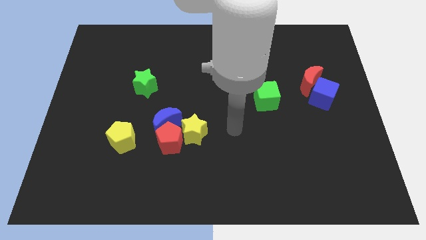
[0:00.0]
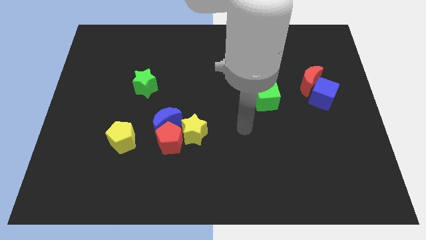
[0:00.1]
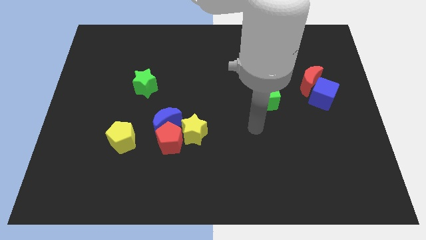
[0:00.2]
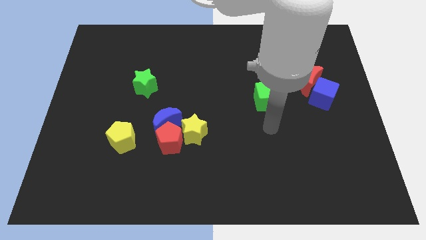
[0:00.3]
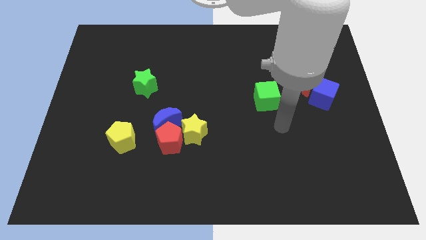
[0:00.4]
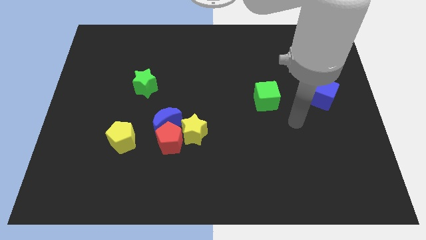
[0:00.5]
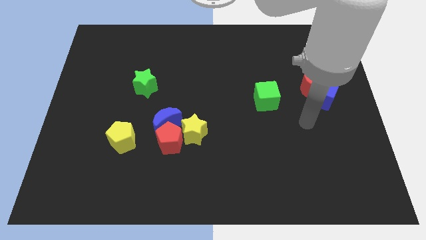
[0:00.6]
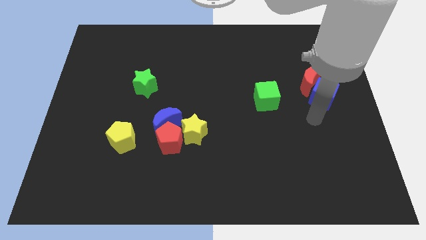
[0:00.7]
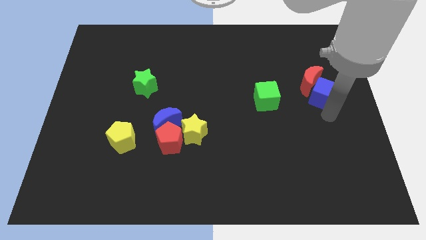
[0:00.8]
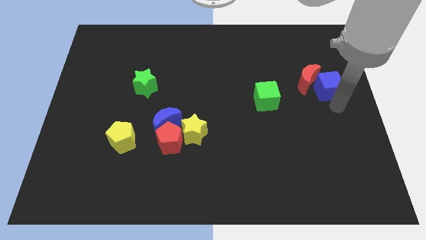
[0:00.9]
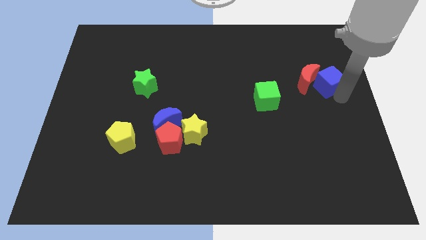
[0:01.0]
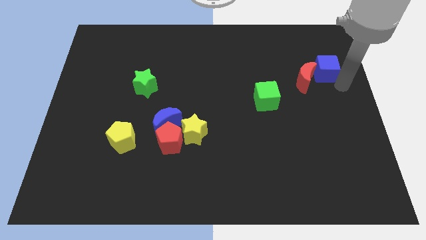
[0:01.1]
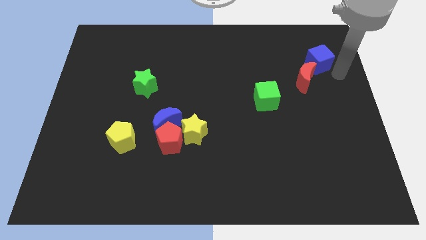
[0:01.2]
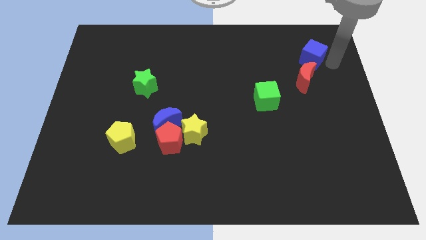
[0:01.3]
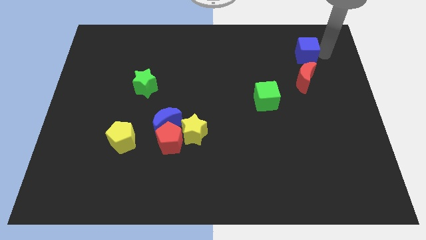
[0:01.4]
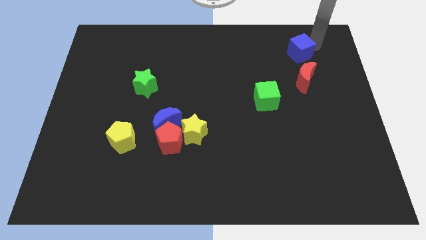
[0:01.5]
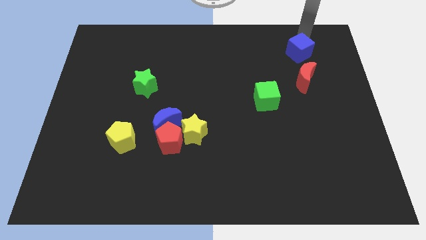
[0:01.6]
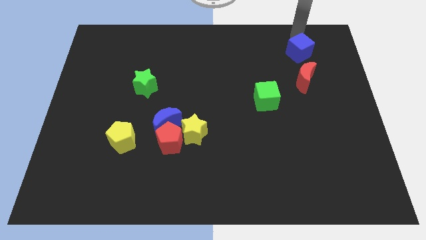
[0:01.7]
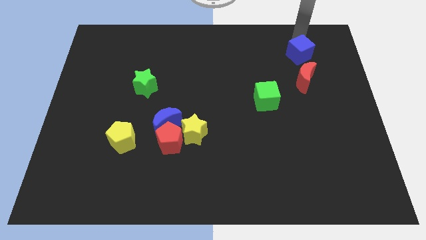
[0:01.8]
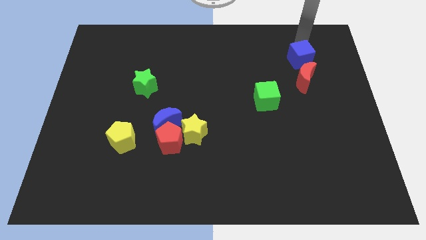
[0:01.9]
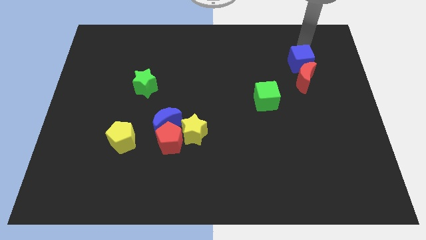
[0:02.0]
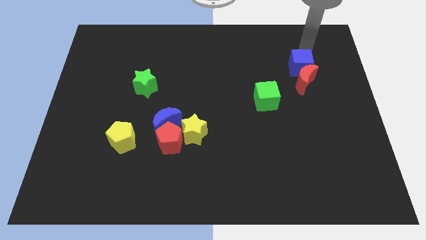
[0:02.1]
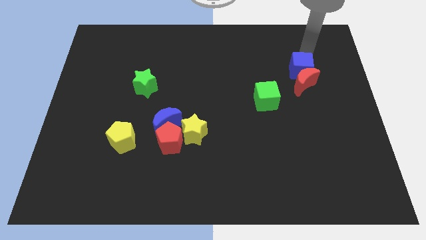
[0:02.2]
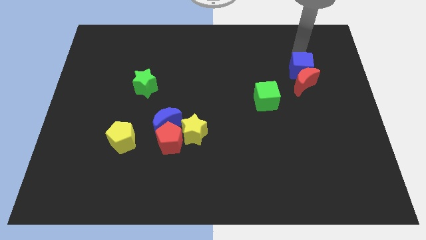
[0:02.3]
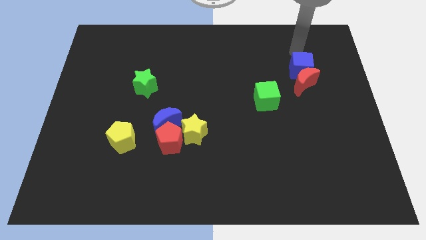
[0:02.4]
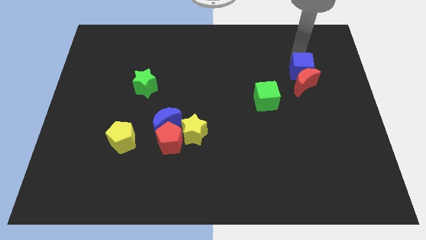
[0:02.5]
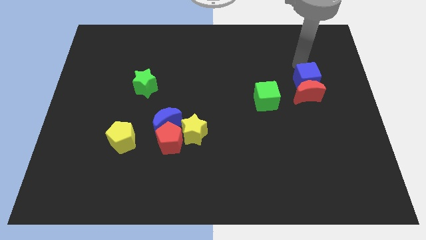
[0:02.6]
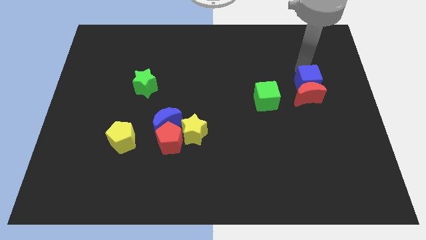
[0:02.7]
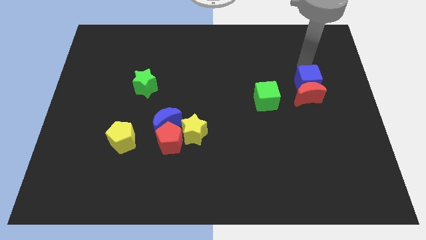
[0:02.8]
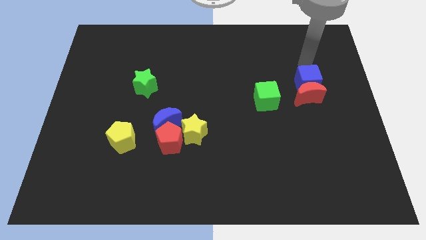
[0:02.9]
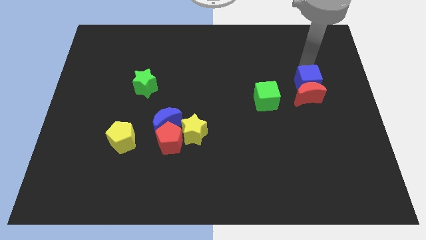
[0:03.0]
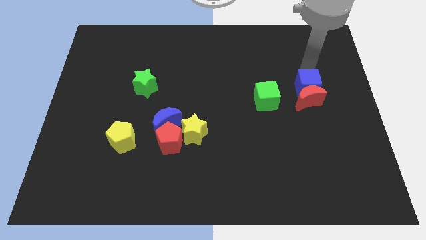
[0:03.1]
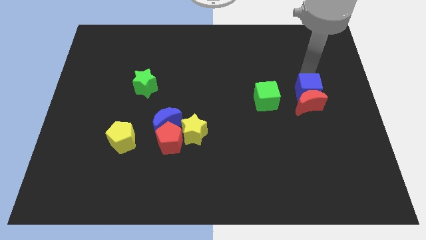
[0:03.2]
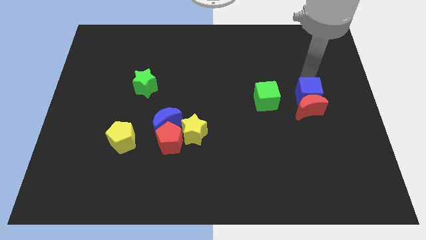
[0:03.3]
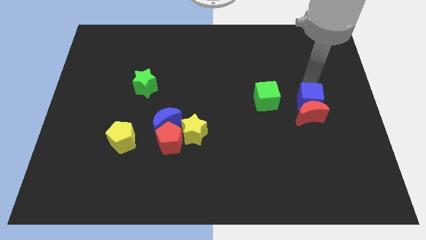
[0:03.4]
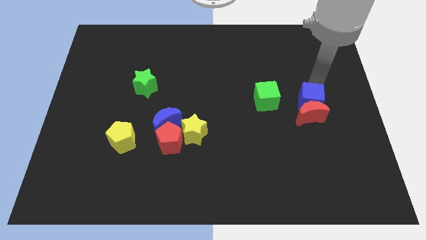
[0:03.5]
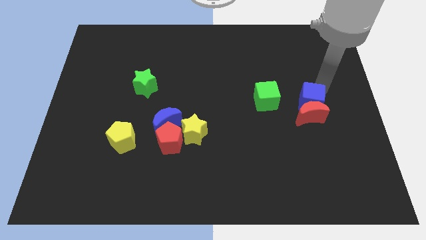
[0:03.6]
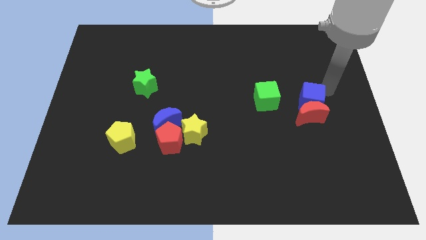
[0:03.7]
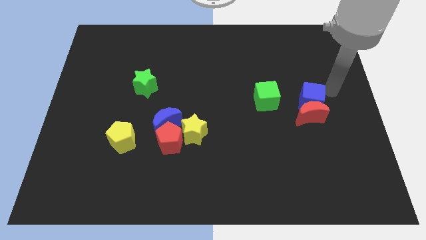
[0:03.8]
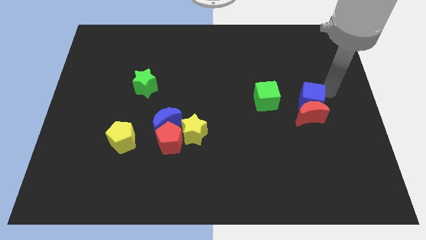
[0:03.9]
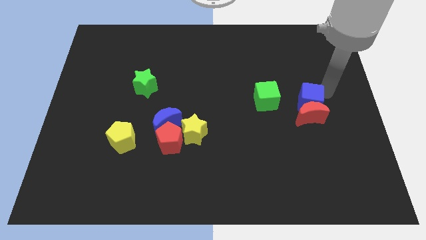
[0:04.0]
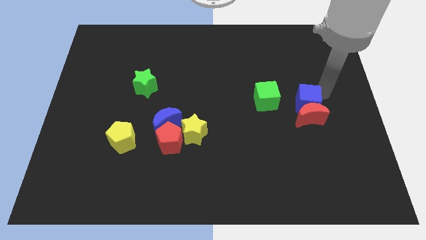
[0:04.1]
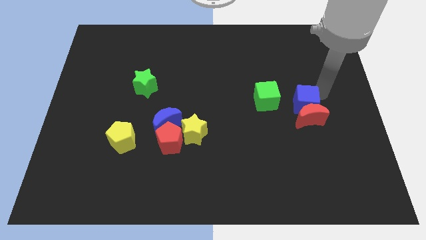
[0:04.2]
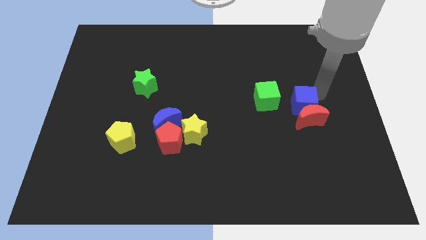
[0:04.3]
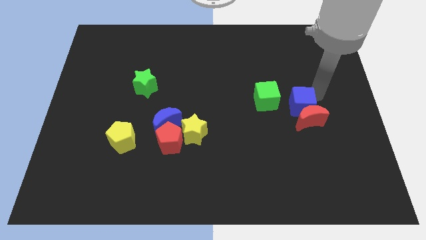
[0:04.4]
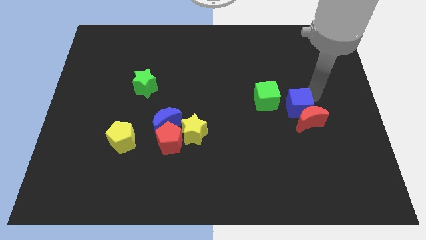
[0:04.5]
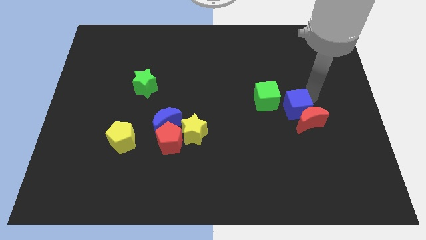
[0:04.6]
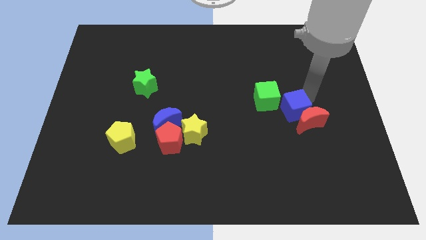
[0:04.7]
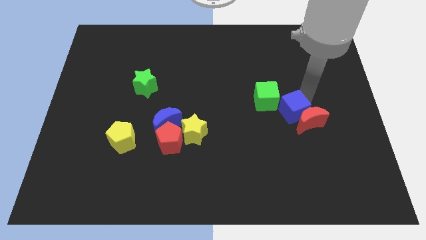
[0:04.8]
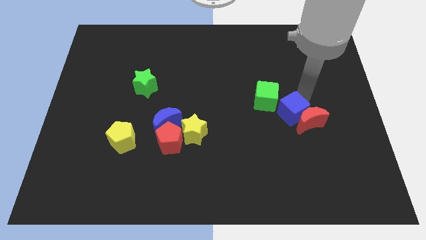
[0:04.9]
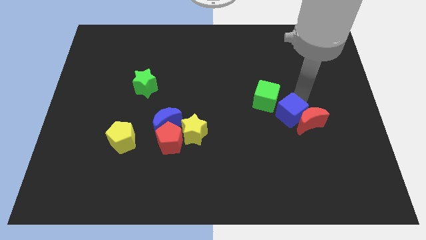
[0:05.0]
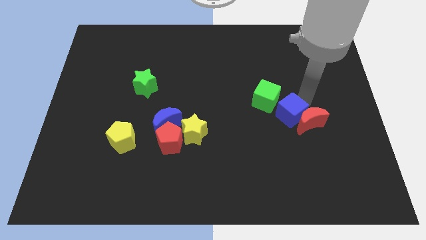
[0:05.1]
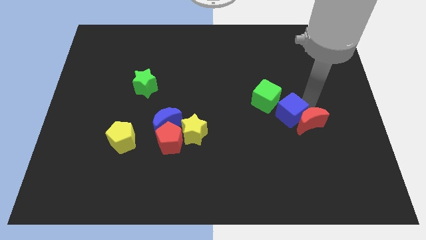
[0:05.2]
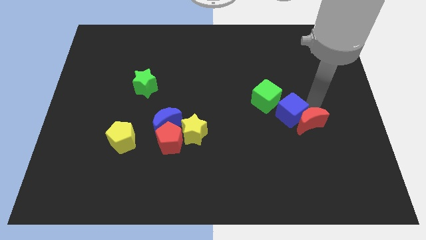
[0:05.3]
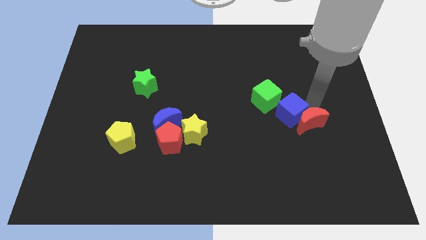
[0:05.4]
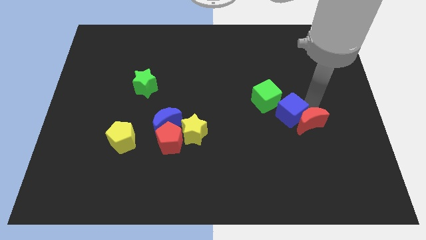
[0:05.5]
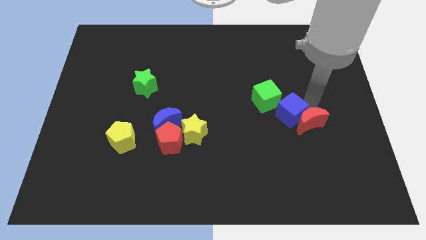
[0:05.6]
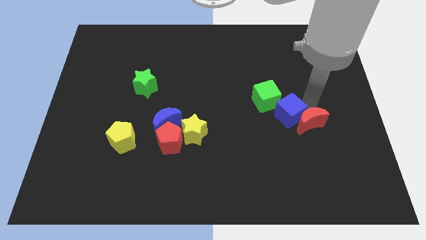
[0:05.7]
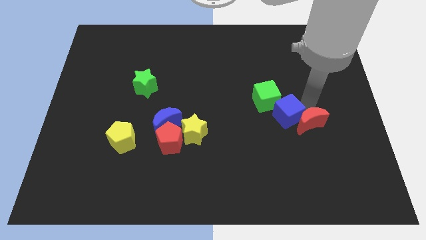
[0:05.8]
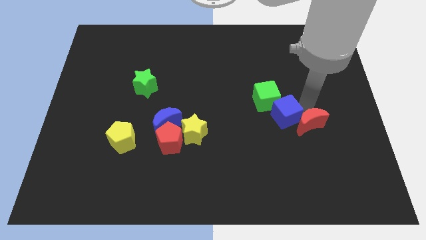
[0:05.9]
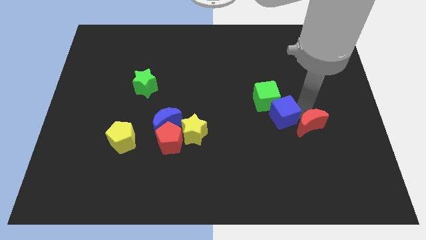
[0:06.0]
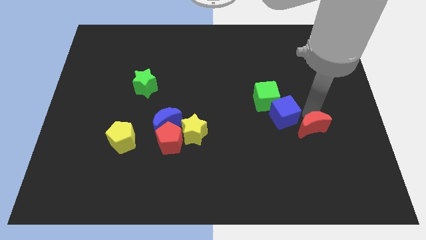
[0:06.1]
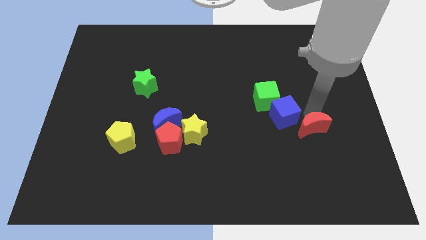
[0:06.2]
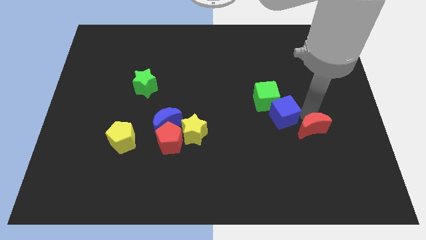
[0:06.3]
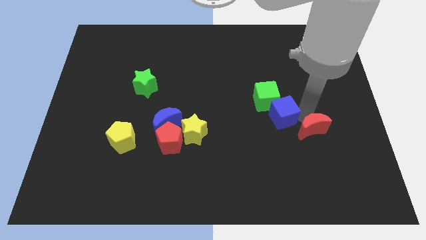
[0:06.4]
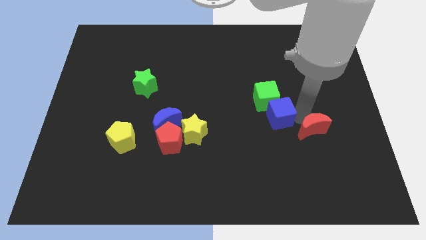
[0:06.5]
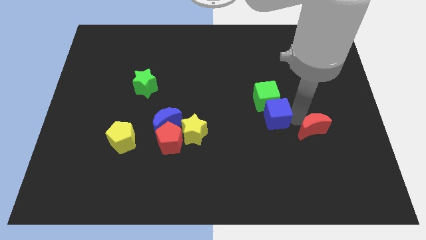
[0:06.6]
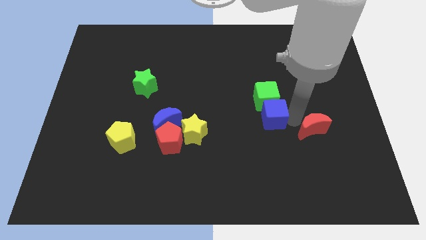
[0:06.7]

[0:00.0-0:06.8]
move the blue cube to the bottom left of the green cube
